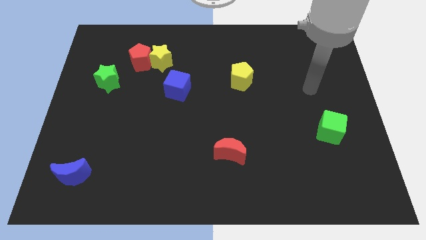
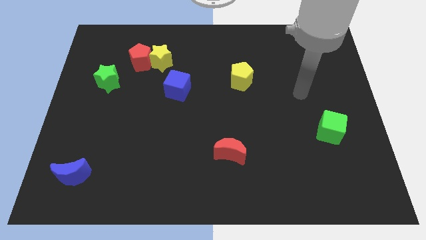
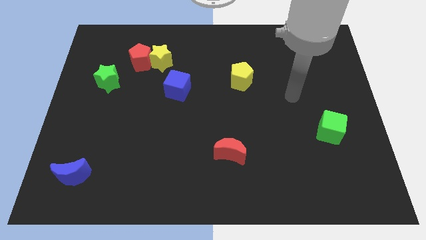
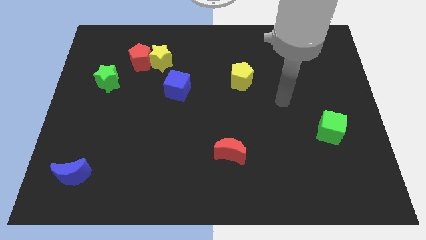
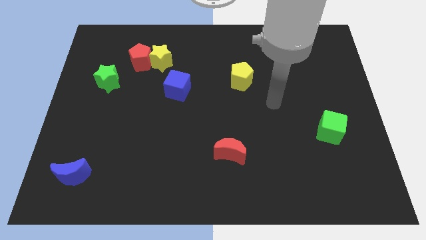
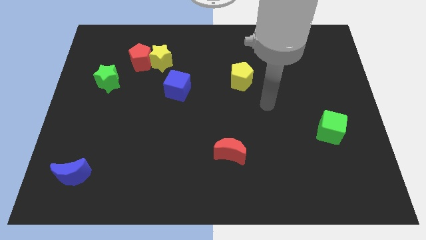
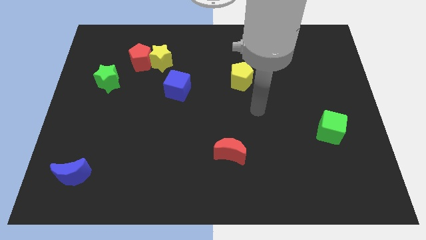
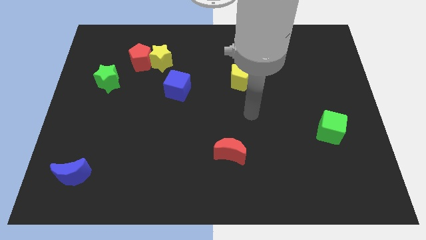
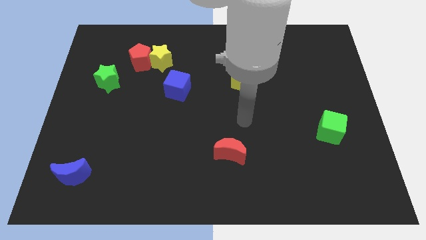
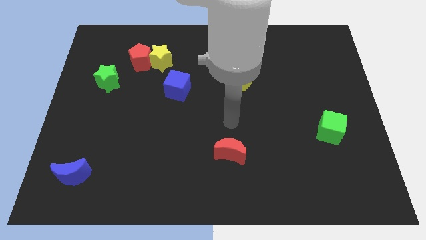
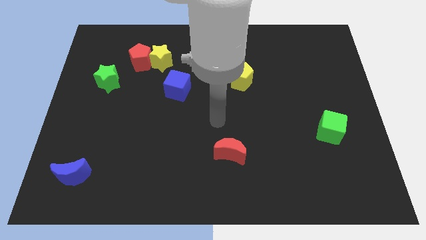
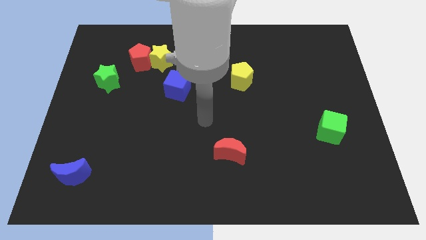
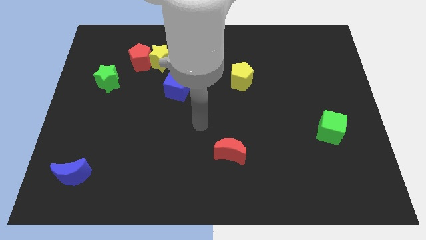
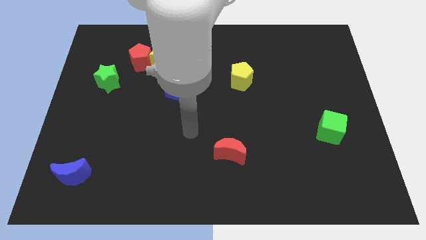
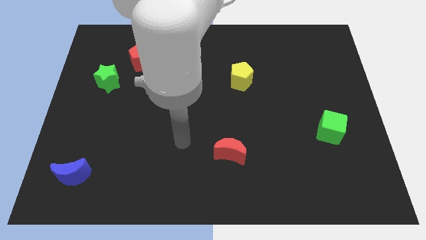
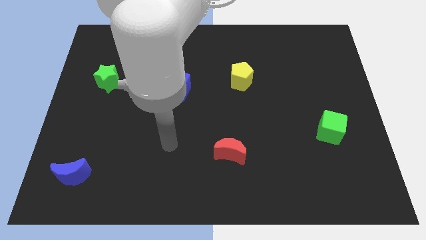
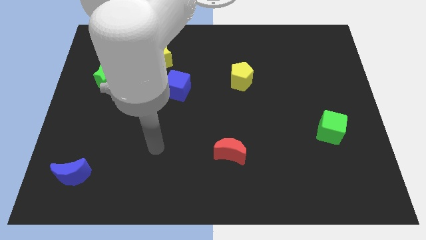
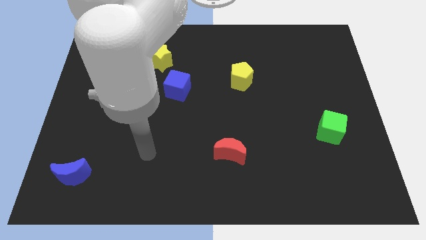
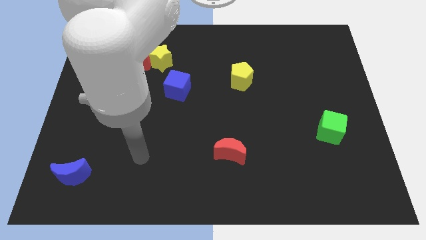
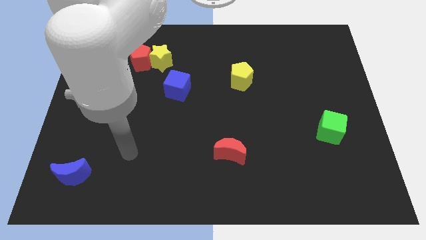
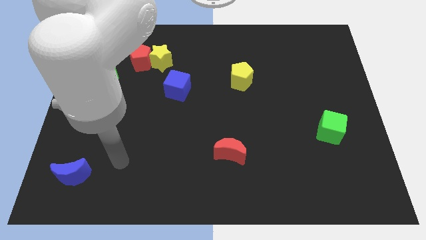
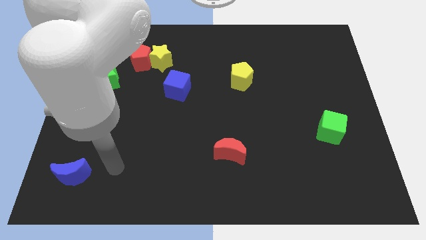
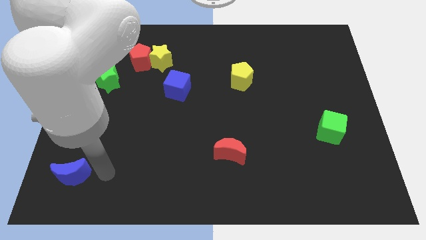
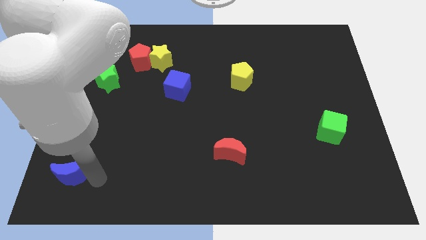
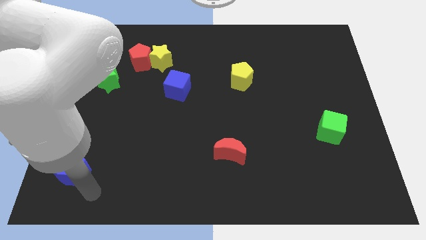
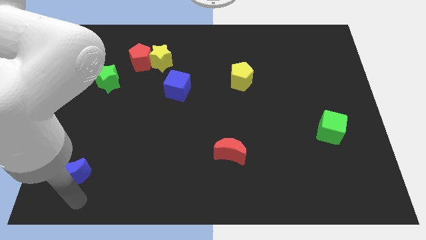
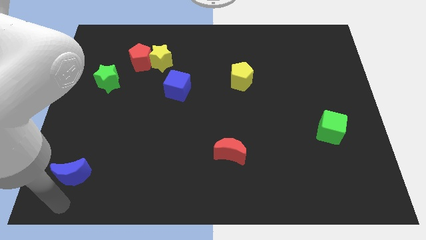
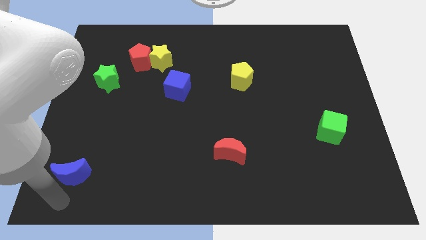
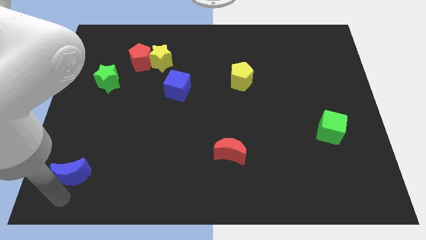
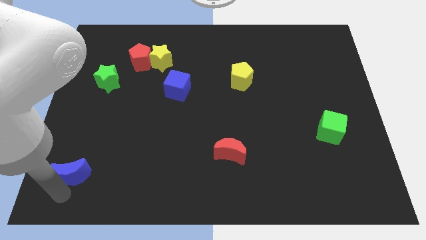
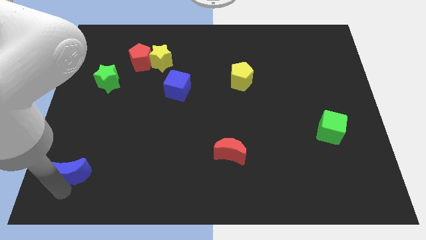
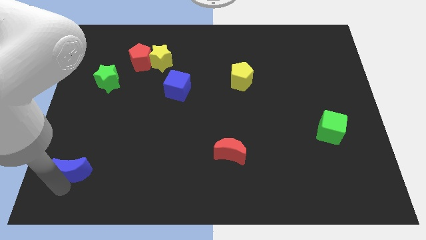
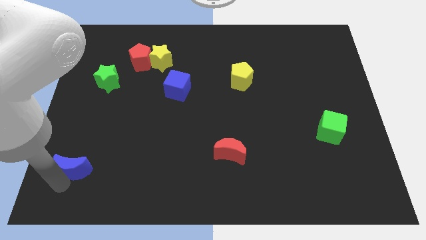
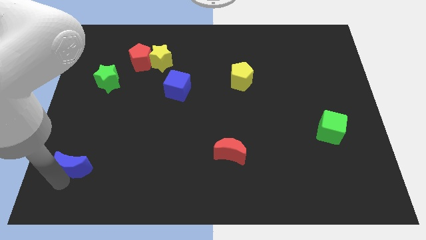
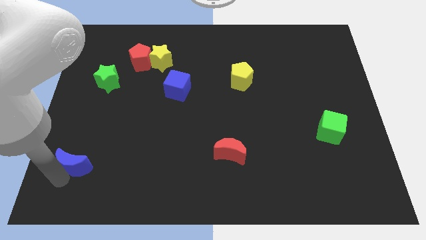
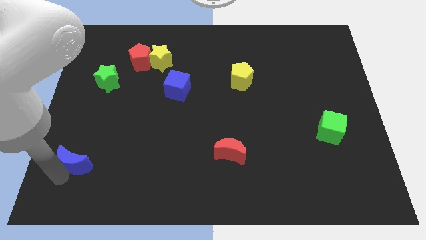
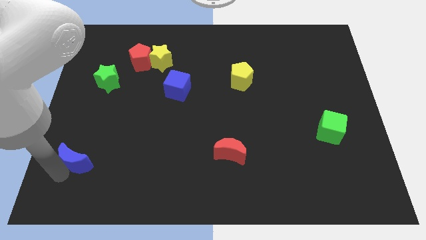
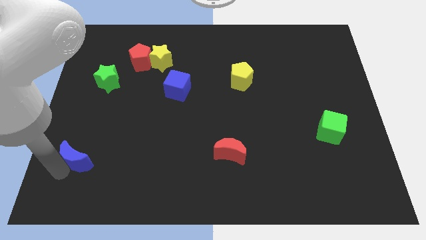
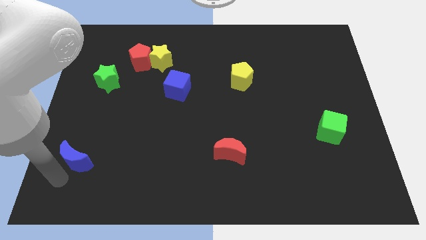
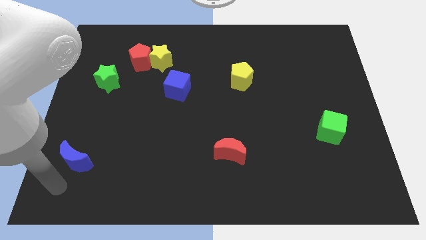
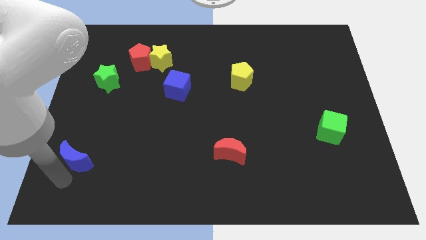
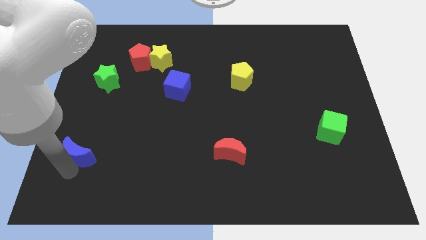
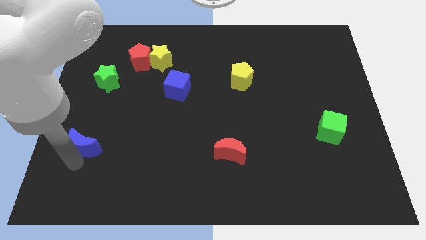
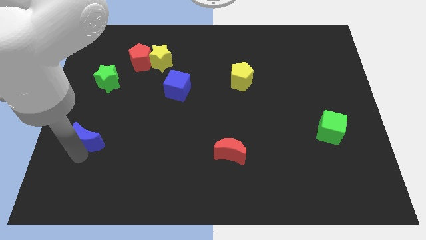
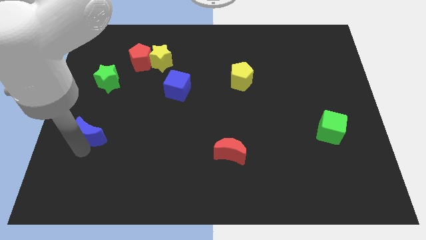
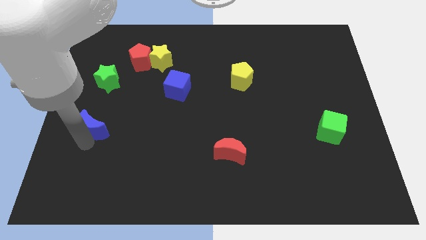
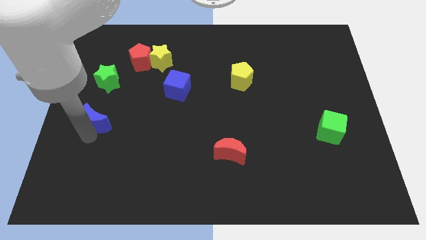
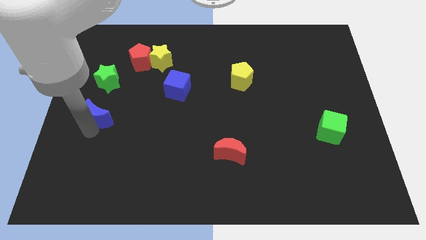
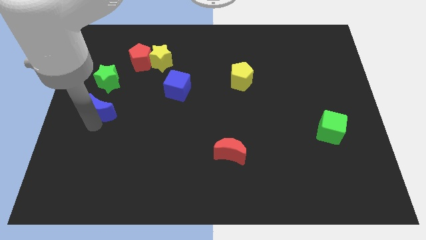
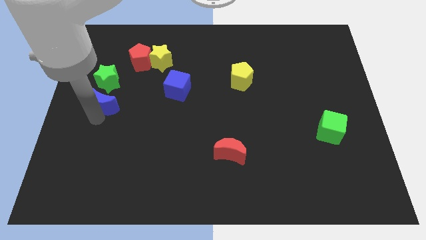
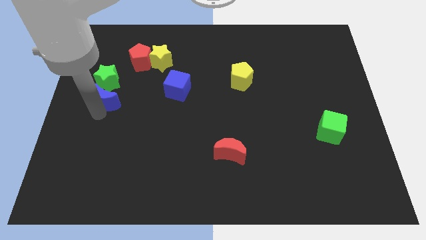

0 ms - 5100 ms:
push the blue moon next to the green star

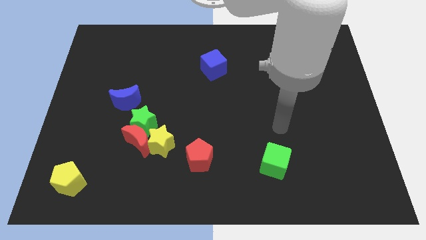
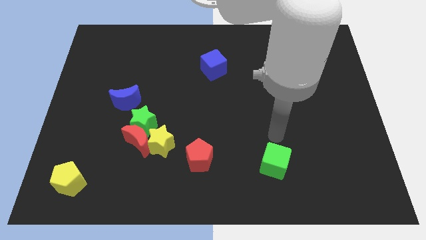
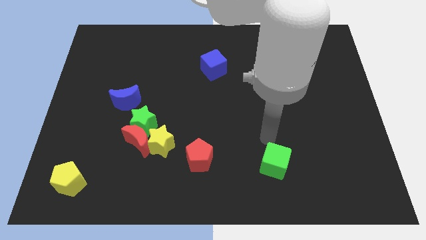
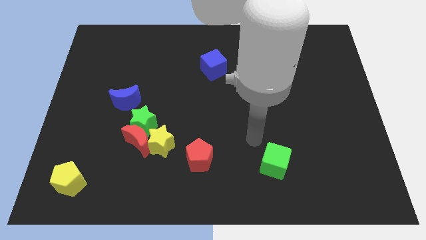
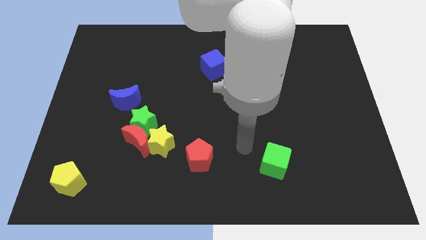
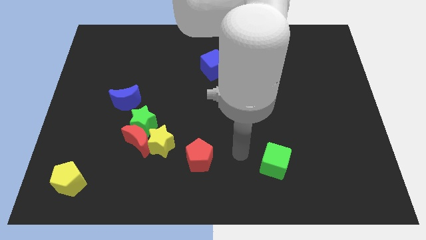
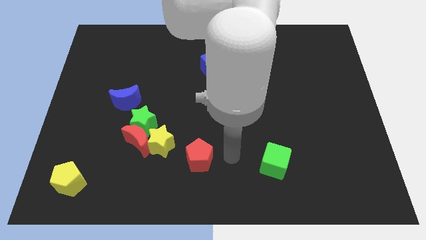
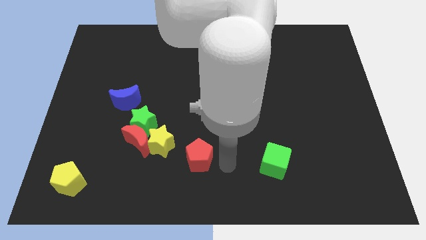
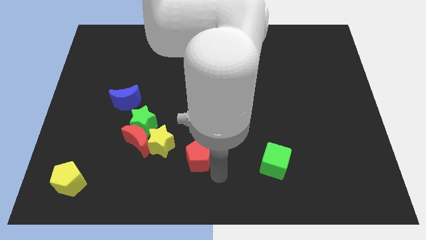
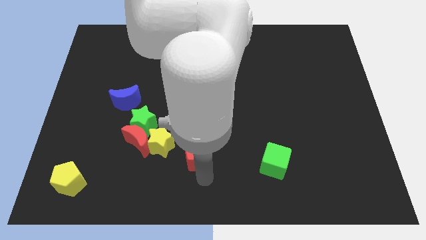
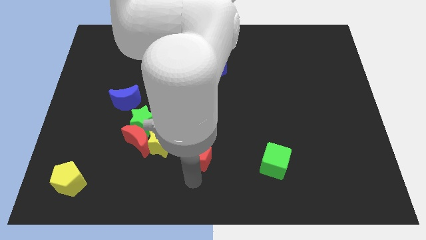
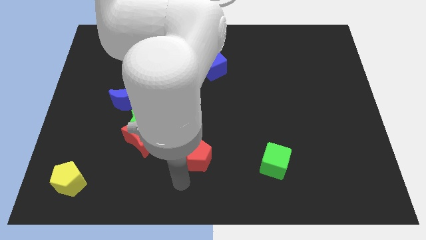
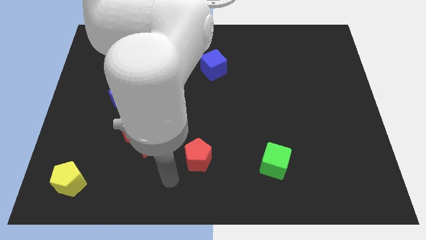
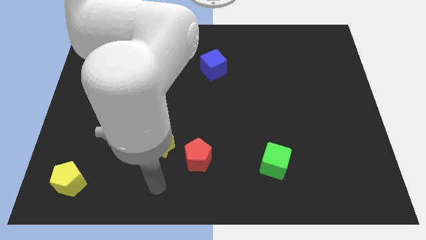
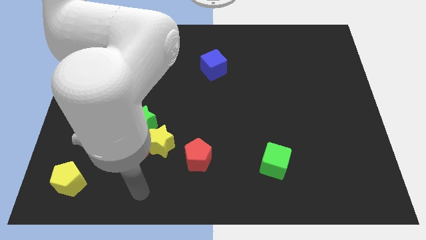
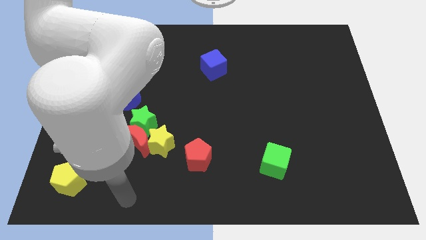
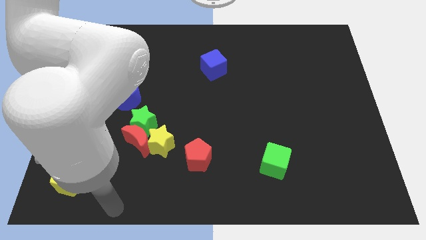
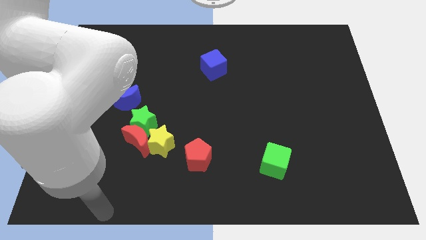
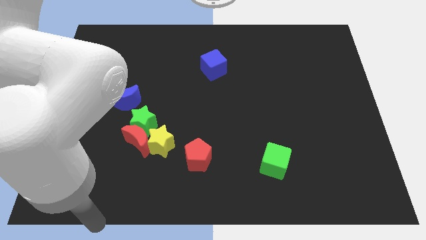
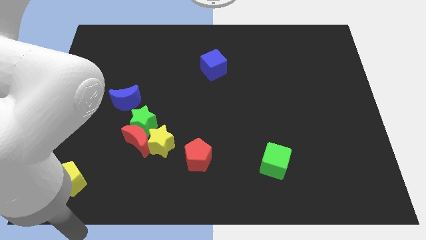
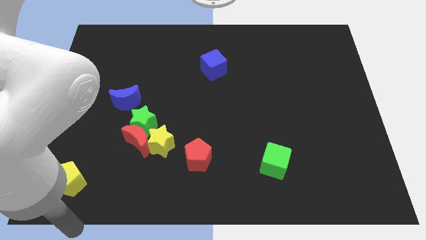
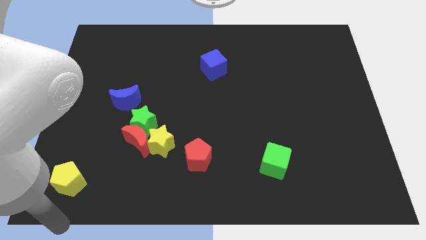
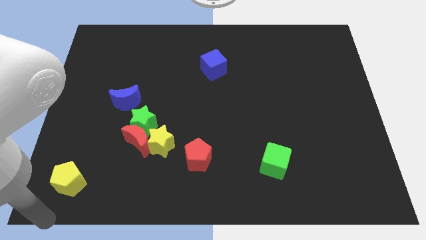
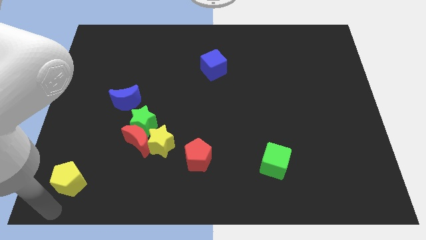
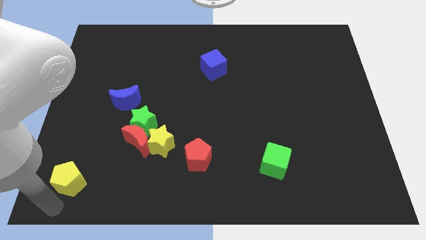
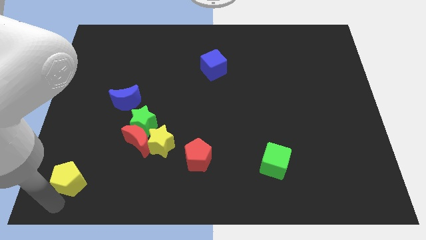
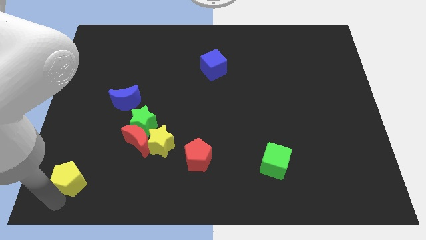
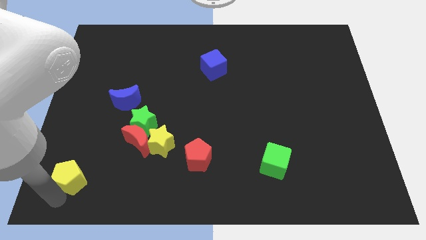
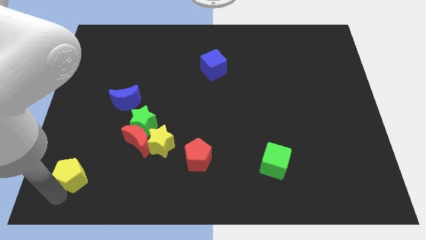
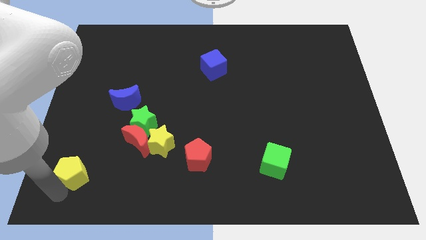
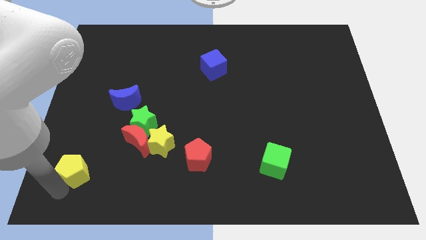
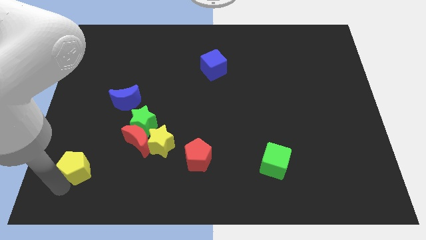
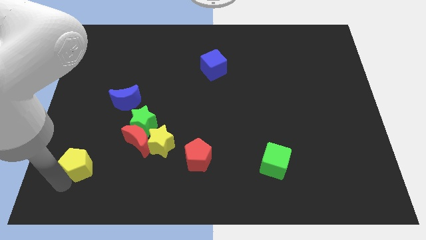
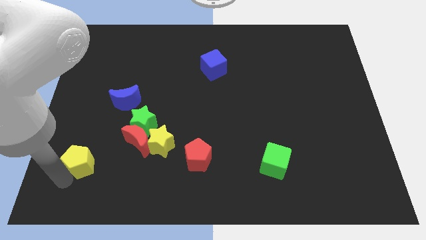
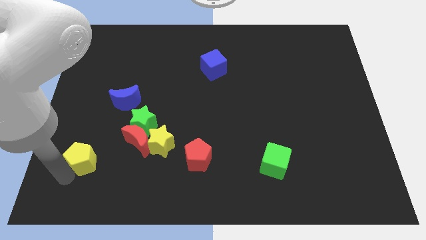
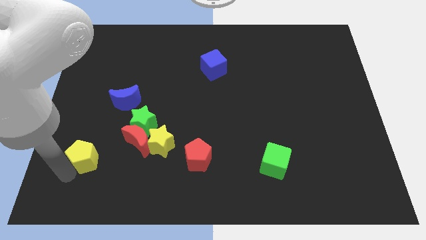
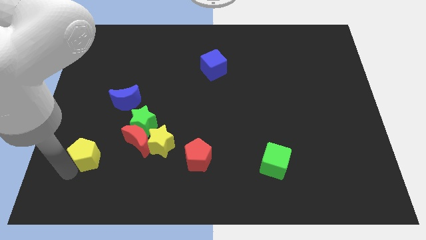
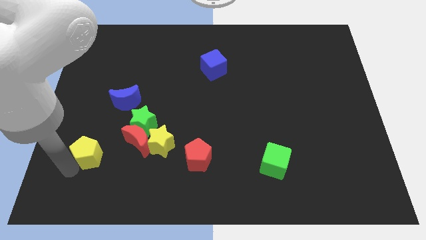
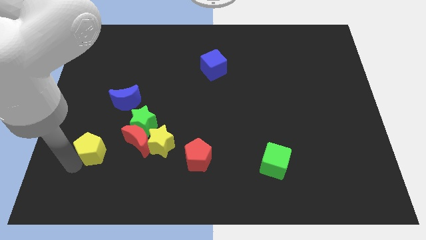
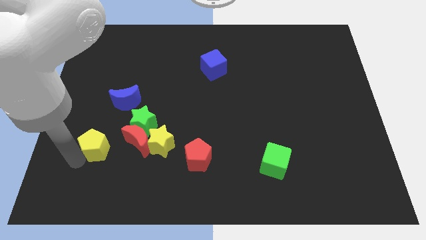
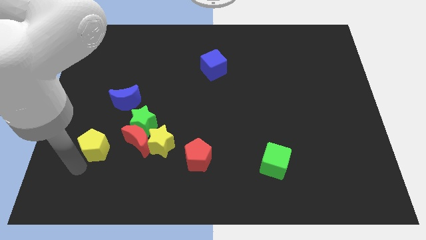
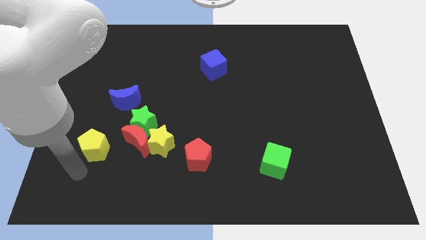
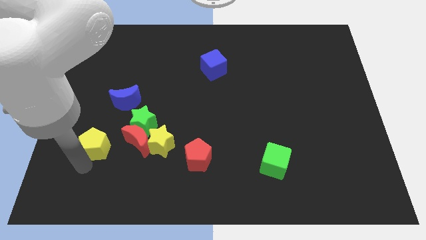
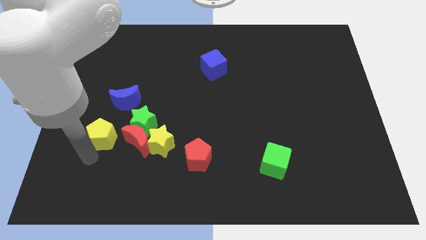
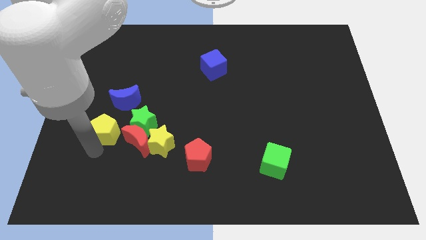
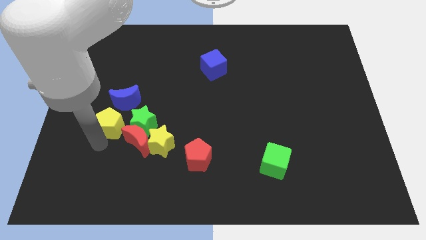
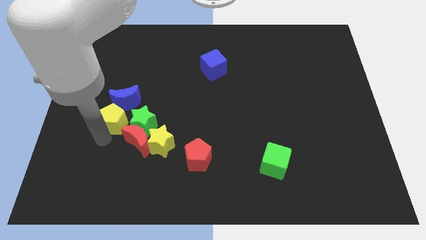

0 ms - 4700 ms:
move the yellow pentagon to the blue moon
